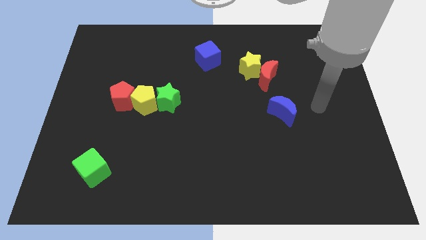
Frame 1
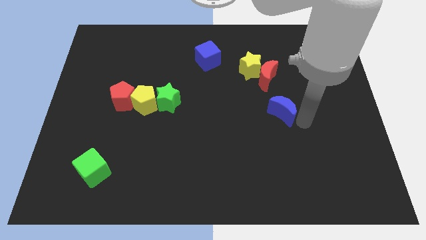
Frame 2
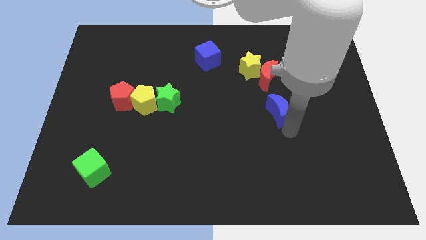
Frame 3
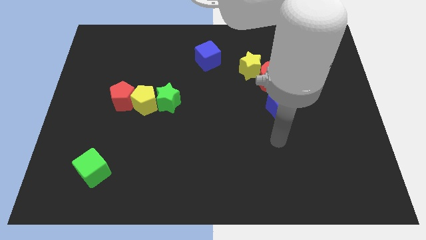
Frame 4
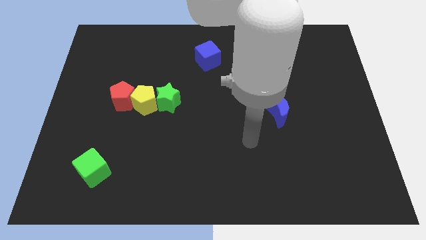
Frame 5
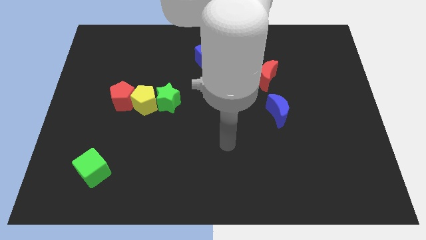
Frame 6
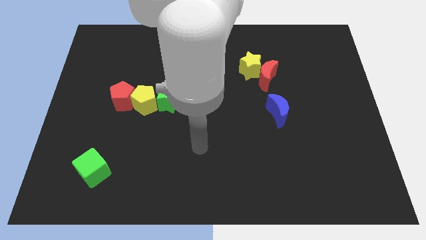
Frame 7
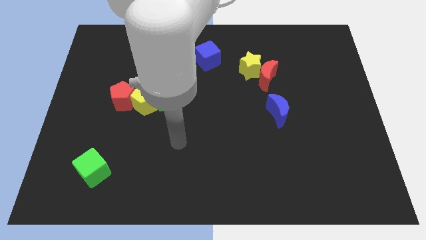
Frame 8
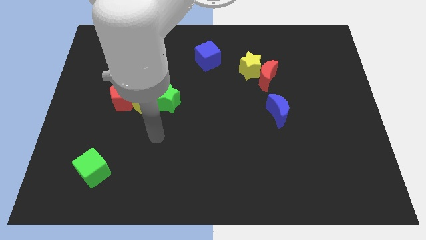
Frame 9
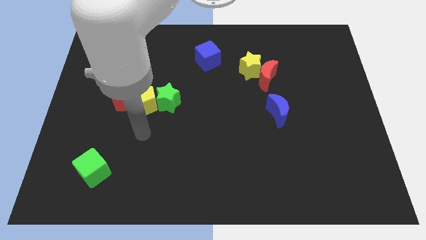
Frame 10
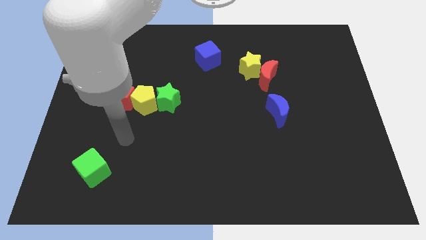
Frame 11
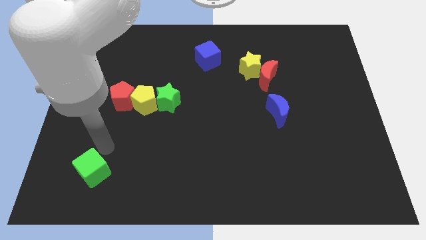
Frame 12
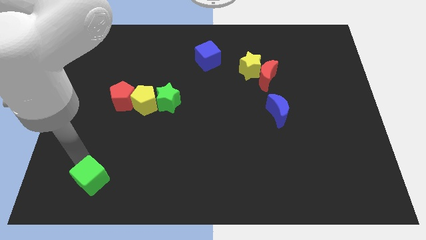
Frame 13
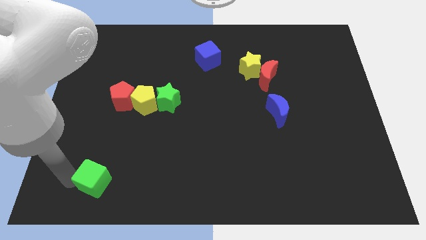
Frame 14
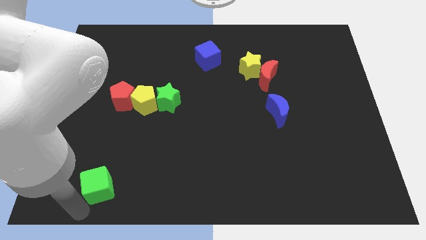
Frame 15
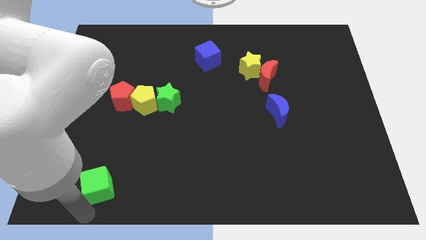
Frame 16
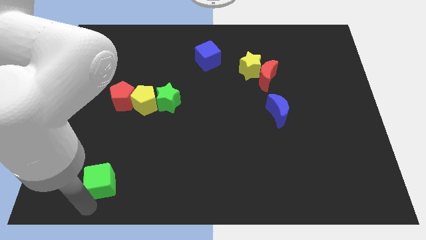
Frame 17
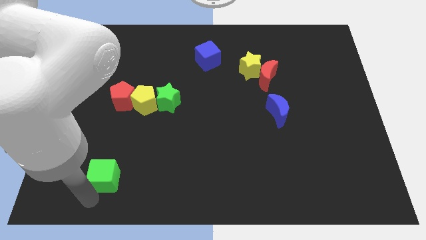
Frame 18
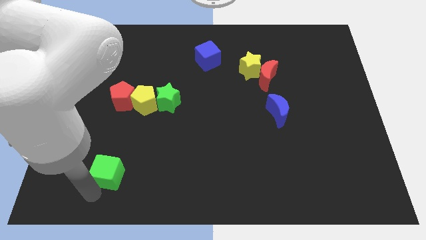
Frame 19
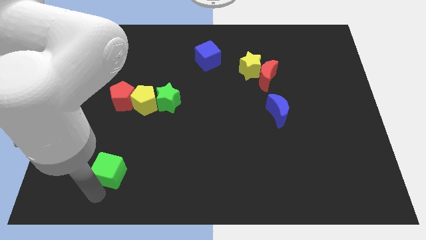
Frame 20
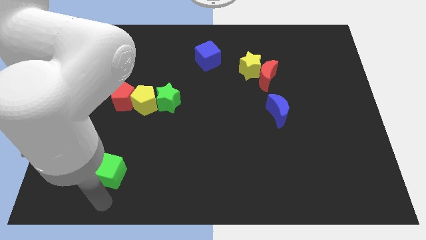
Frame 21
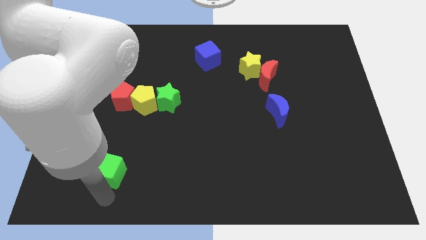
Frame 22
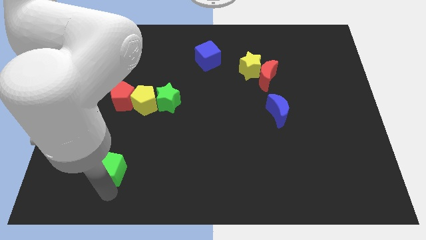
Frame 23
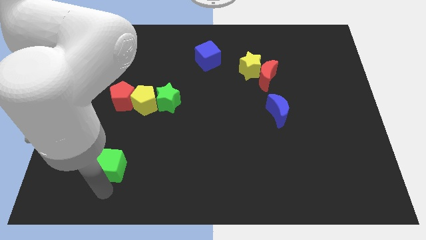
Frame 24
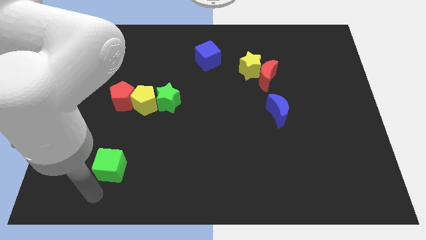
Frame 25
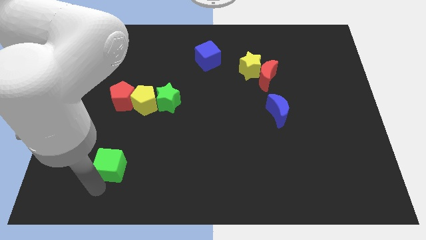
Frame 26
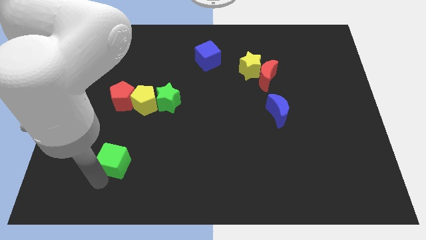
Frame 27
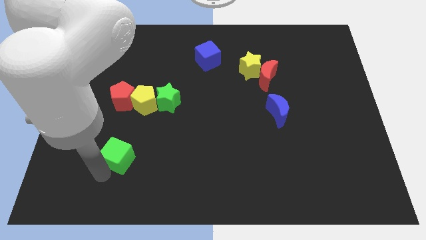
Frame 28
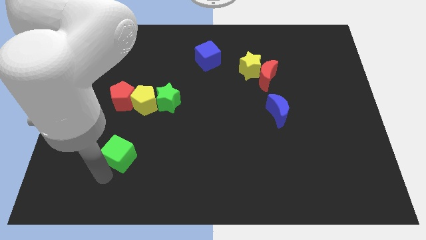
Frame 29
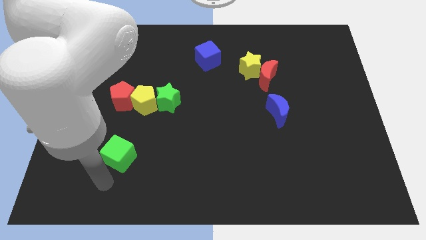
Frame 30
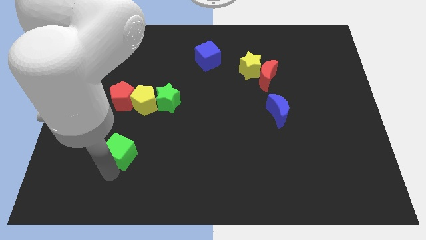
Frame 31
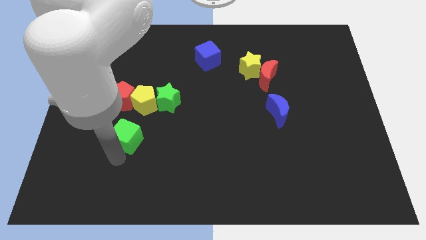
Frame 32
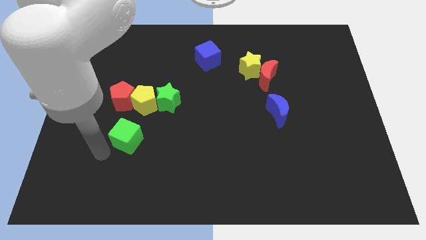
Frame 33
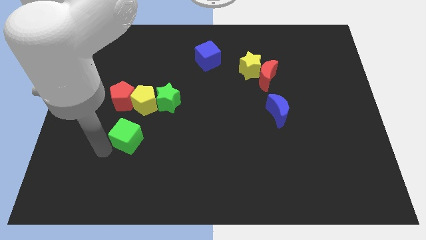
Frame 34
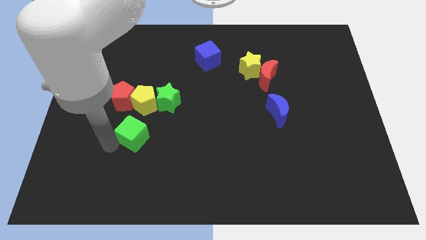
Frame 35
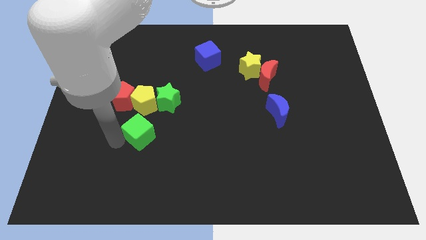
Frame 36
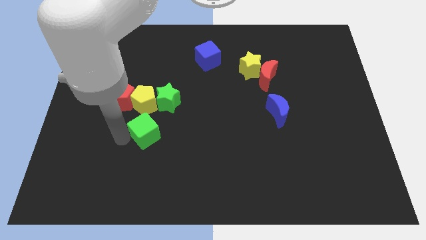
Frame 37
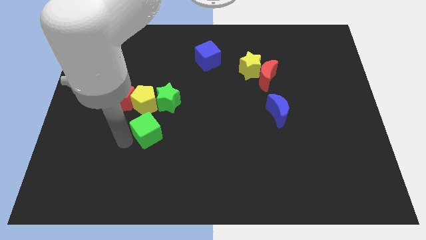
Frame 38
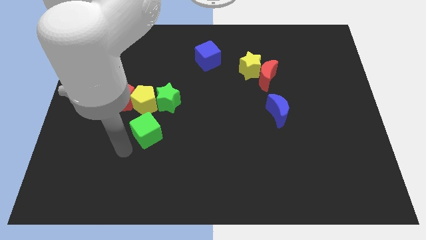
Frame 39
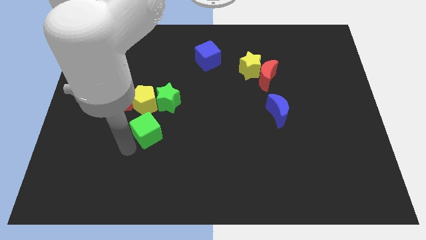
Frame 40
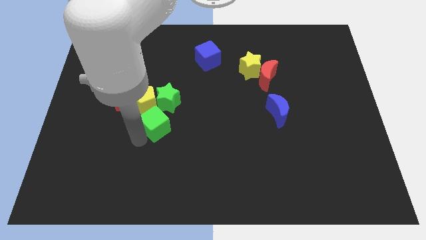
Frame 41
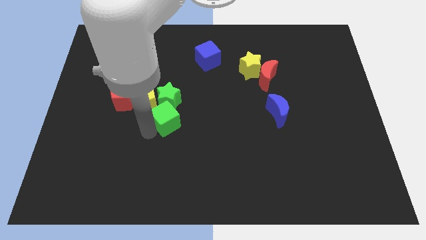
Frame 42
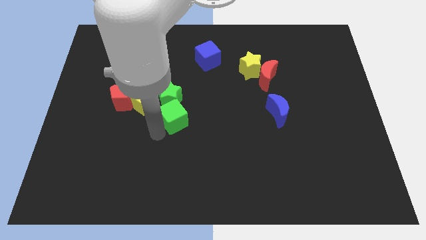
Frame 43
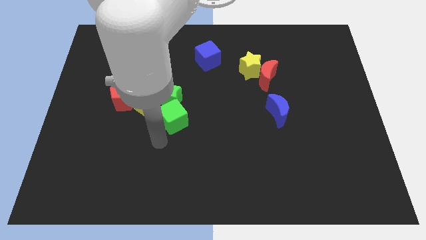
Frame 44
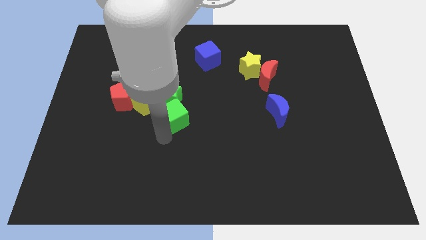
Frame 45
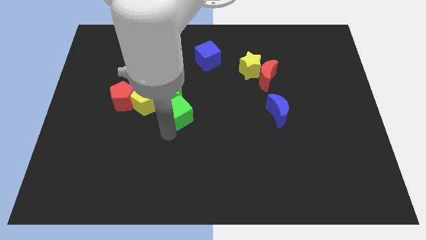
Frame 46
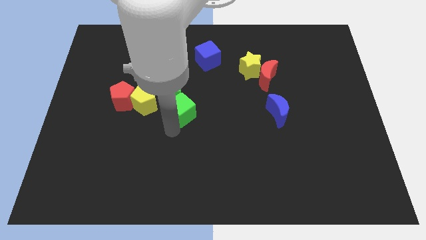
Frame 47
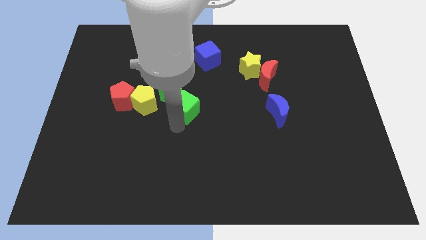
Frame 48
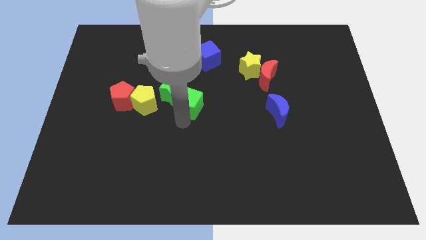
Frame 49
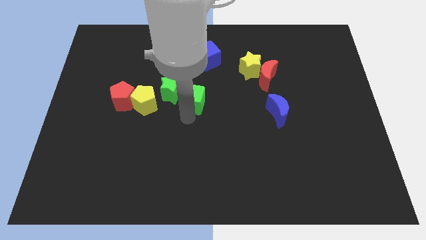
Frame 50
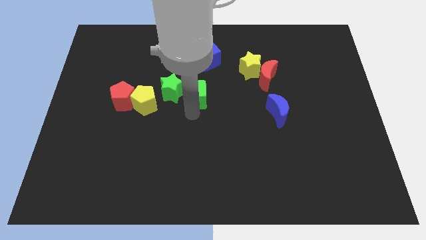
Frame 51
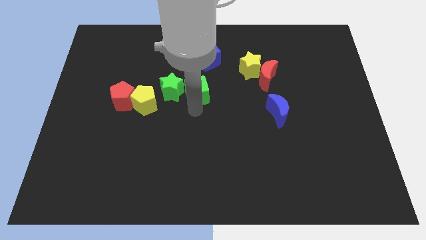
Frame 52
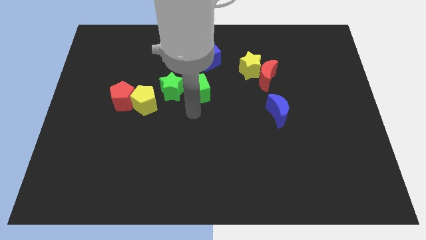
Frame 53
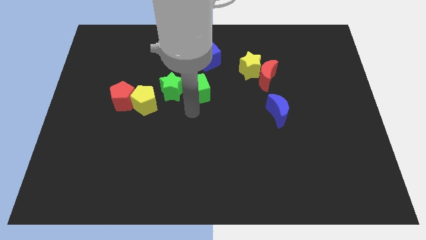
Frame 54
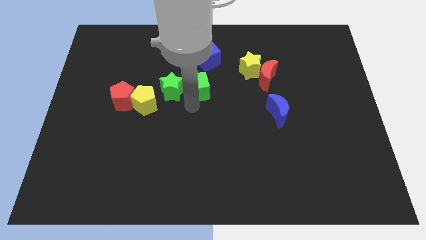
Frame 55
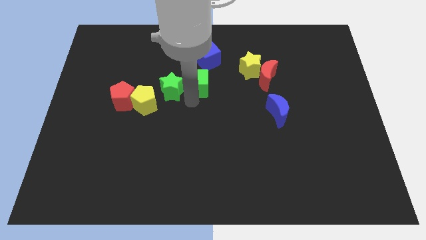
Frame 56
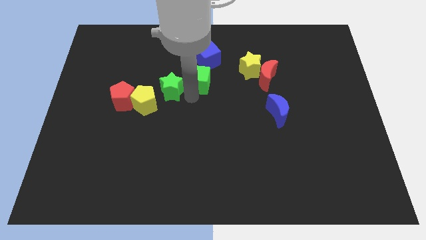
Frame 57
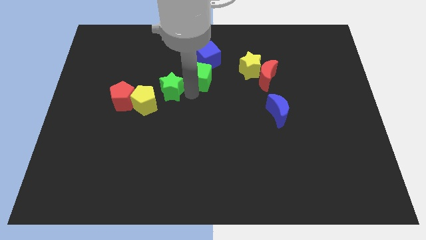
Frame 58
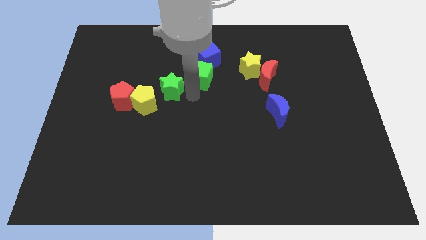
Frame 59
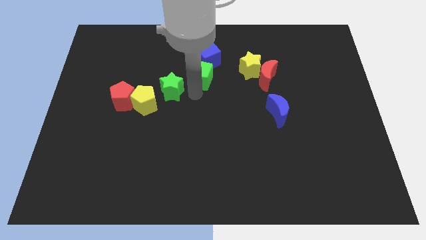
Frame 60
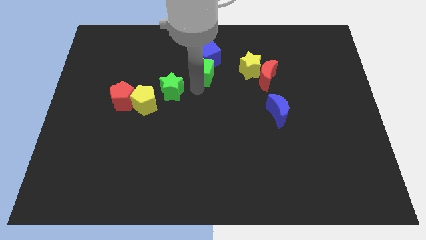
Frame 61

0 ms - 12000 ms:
move the green cube to the blue cube

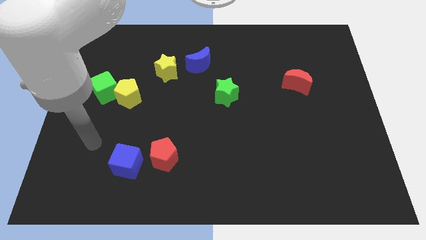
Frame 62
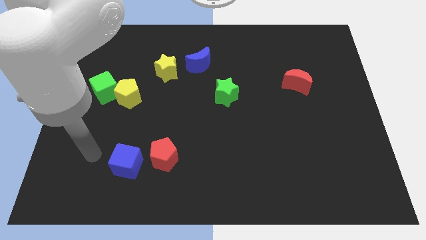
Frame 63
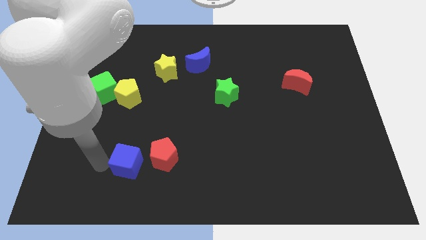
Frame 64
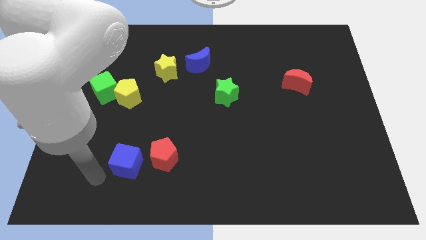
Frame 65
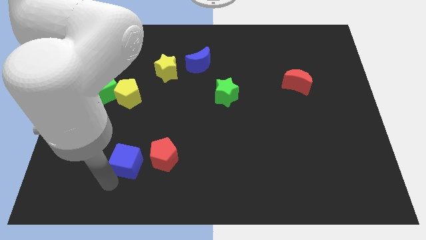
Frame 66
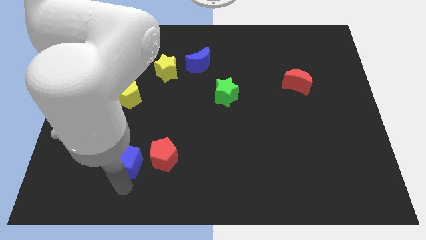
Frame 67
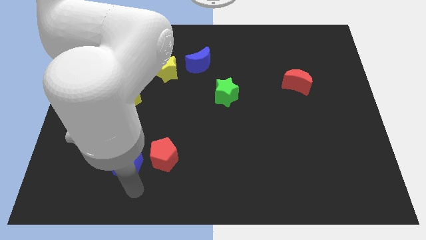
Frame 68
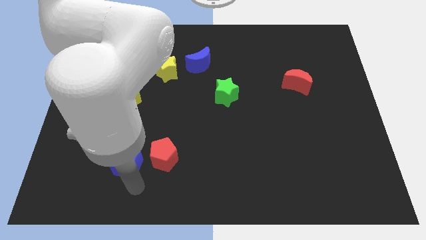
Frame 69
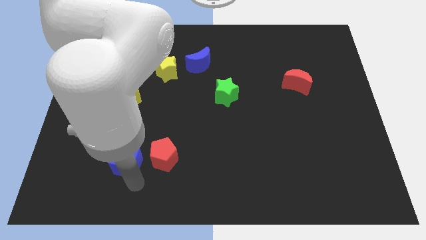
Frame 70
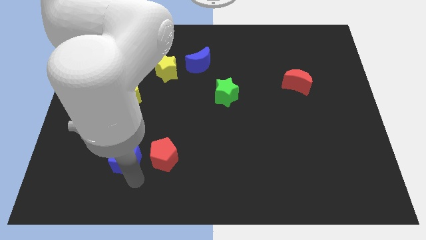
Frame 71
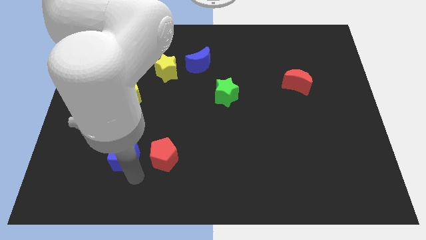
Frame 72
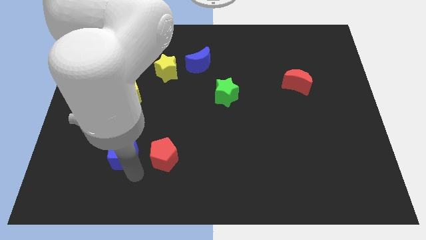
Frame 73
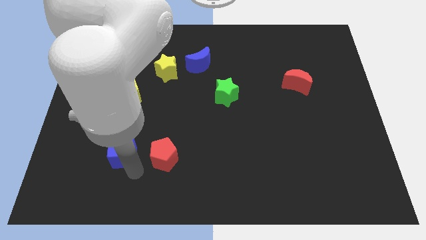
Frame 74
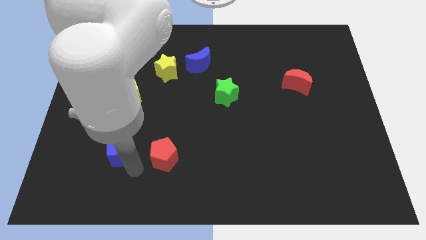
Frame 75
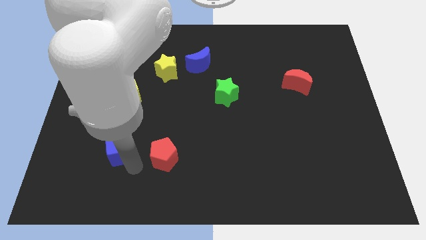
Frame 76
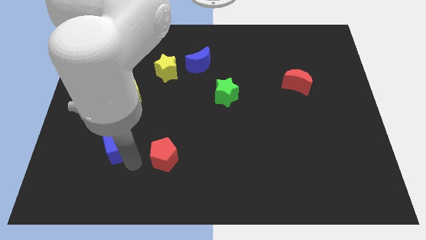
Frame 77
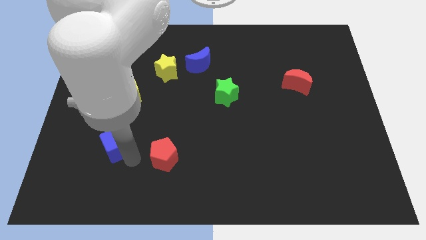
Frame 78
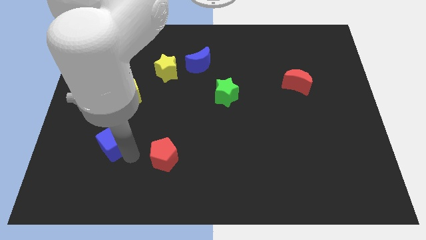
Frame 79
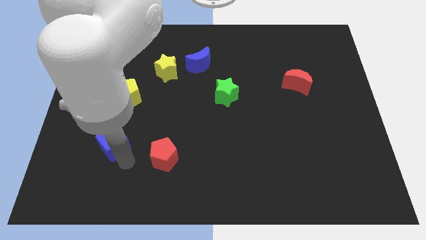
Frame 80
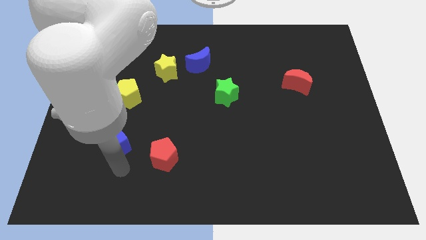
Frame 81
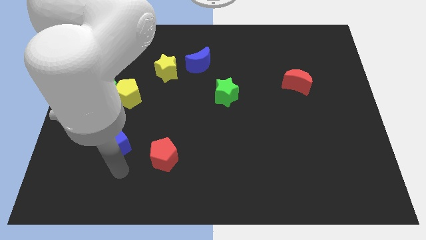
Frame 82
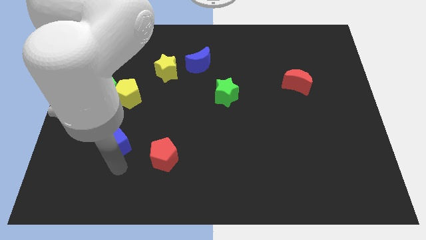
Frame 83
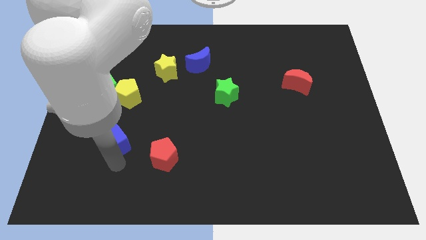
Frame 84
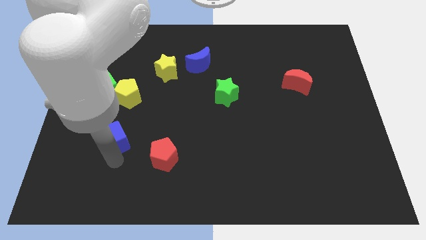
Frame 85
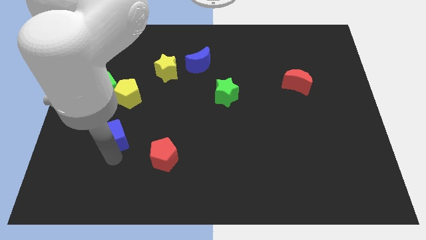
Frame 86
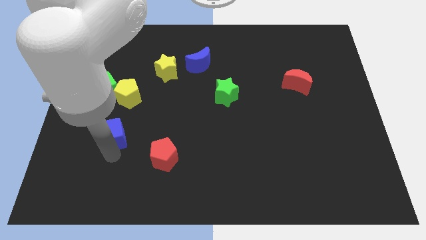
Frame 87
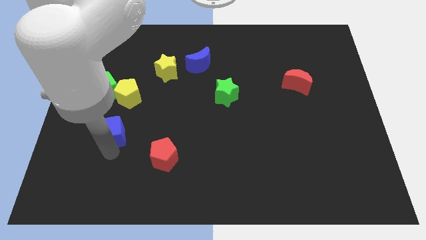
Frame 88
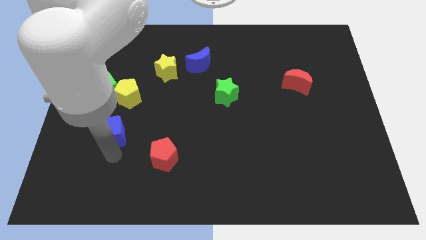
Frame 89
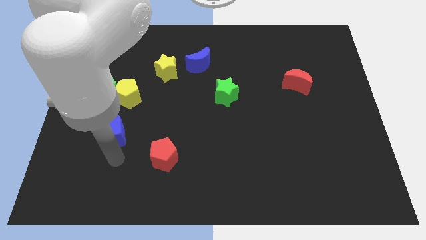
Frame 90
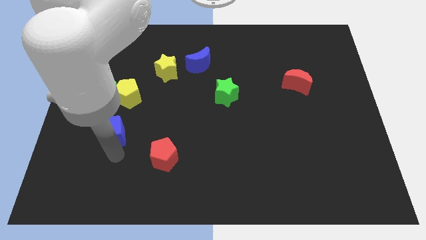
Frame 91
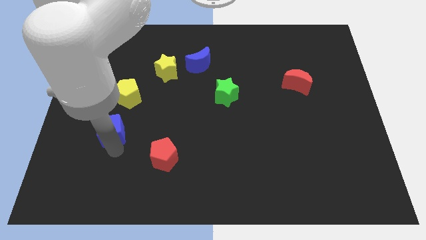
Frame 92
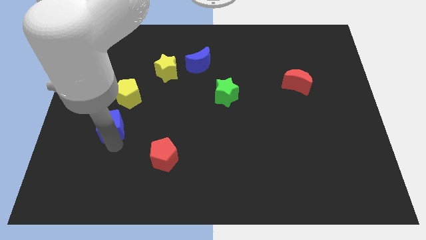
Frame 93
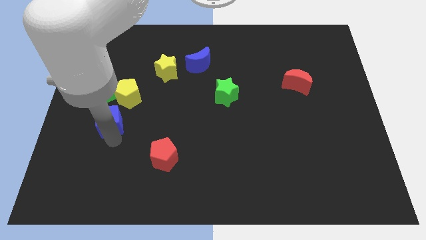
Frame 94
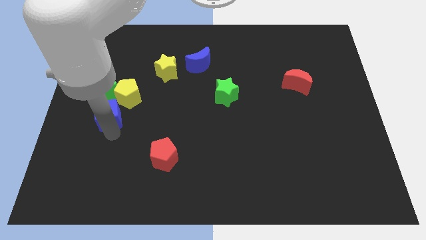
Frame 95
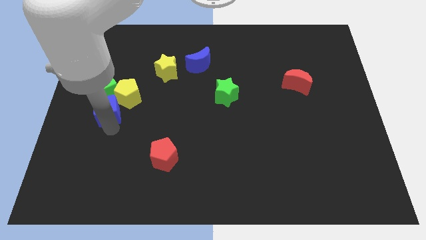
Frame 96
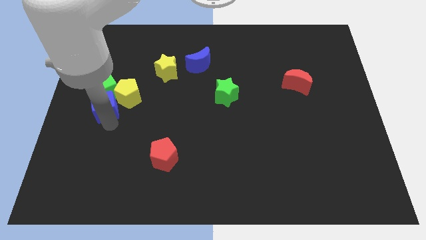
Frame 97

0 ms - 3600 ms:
put the blue cube next to the green cube
